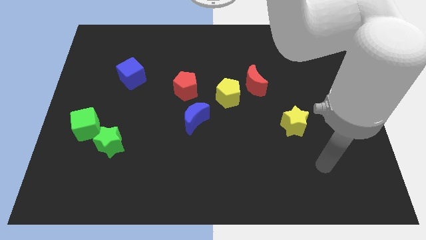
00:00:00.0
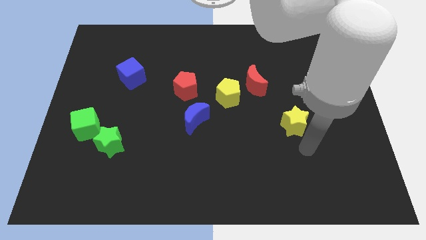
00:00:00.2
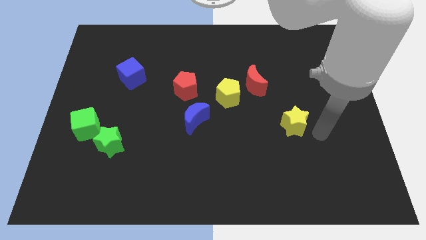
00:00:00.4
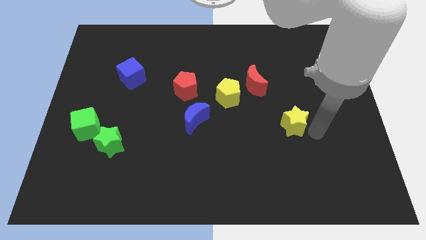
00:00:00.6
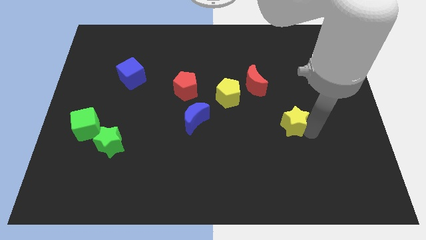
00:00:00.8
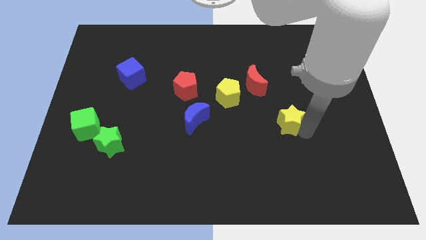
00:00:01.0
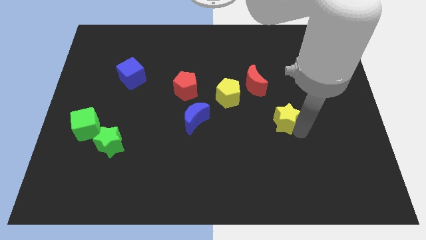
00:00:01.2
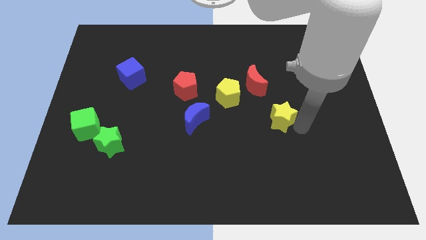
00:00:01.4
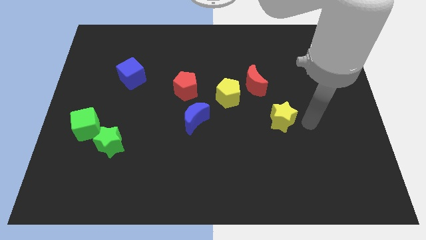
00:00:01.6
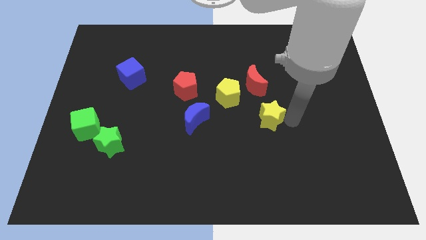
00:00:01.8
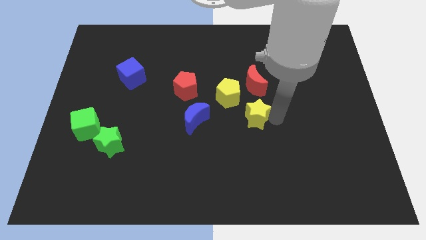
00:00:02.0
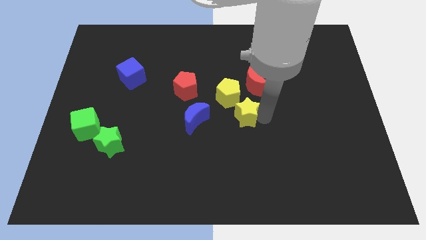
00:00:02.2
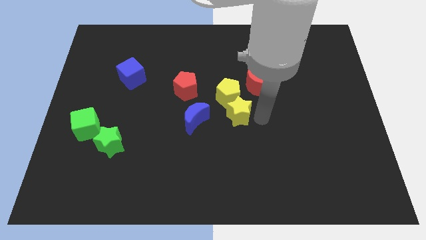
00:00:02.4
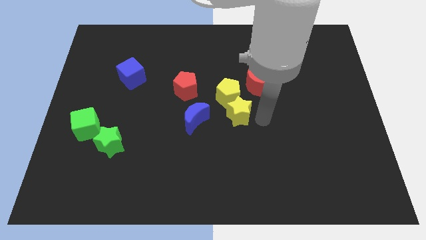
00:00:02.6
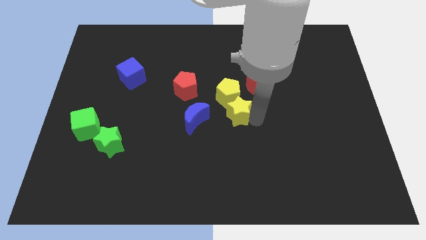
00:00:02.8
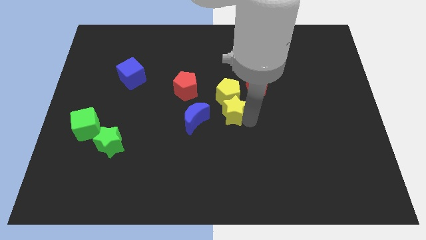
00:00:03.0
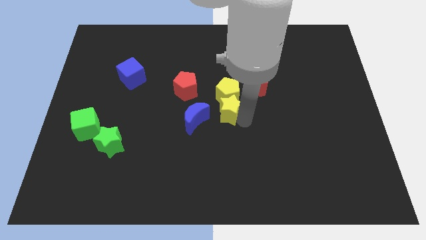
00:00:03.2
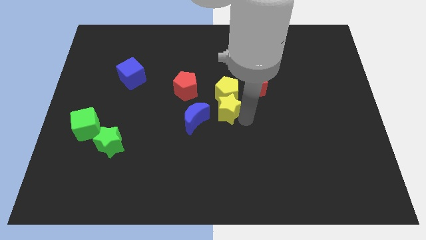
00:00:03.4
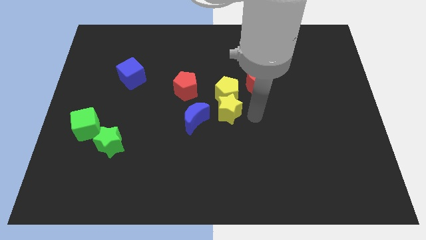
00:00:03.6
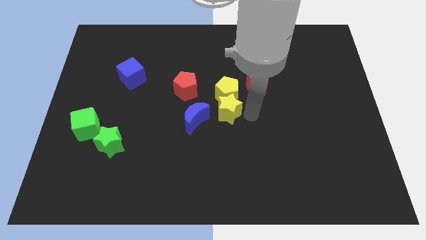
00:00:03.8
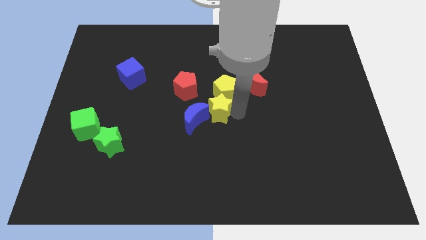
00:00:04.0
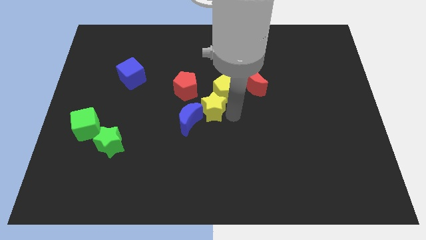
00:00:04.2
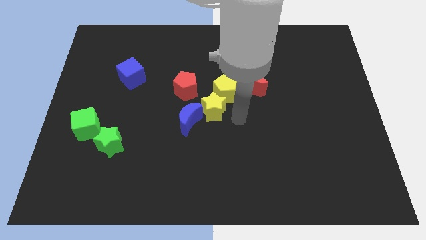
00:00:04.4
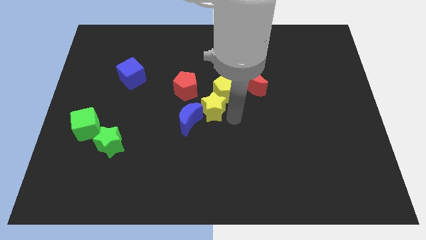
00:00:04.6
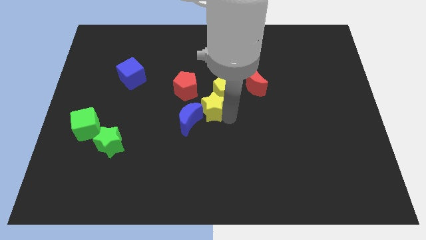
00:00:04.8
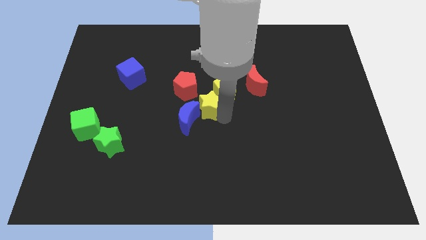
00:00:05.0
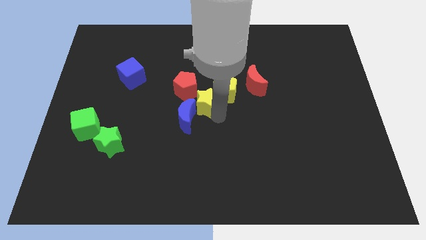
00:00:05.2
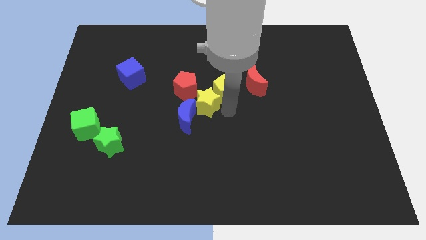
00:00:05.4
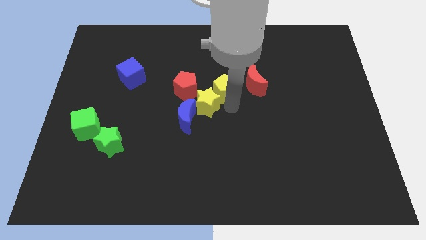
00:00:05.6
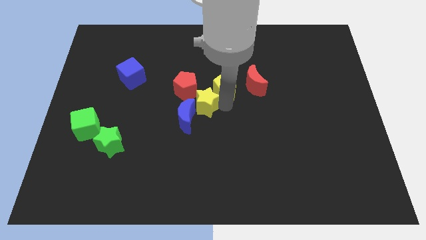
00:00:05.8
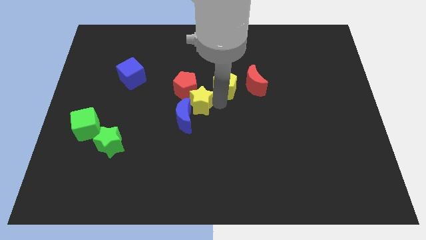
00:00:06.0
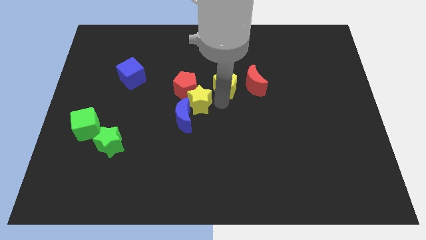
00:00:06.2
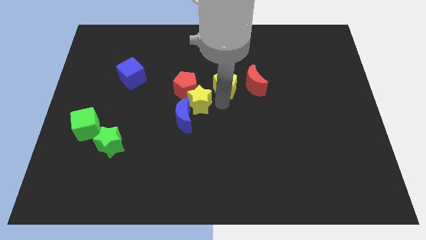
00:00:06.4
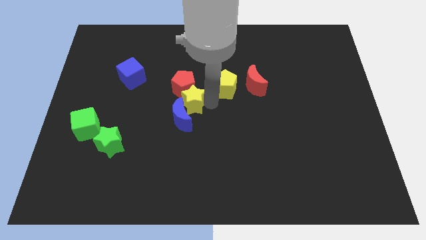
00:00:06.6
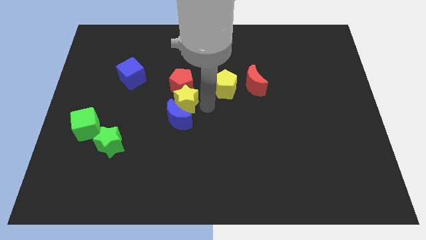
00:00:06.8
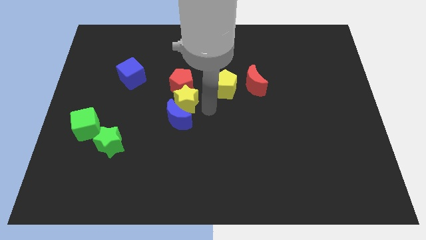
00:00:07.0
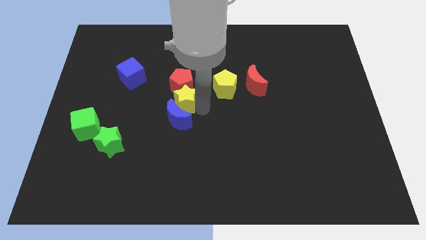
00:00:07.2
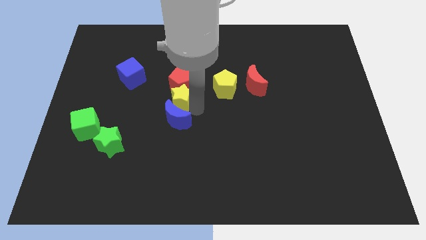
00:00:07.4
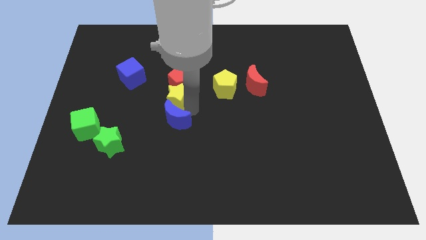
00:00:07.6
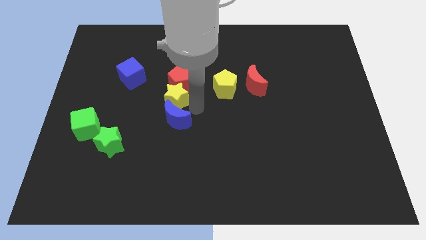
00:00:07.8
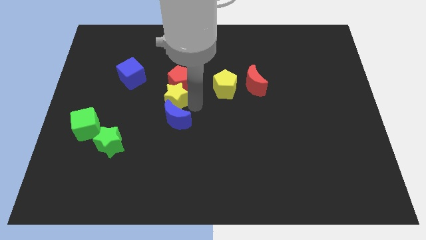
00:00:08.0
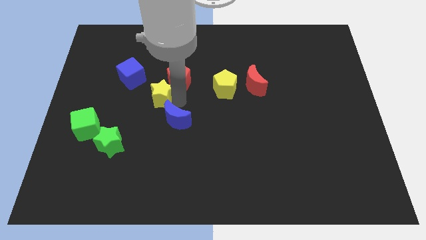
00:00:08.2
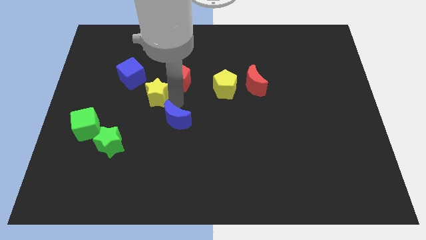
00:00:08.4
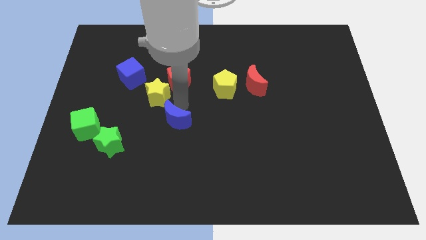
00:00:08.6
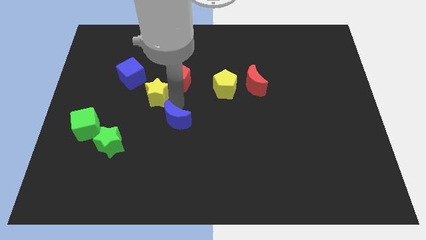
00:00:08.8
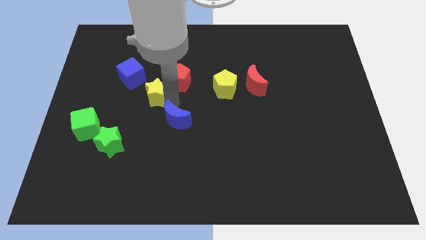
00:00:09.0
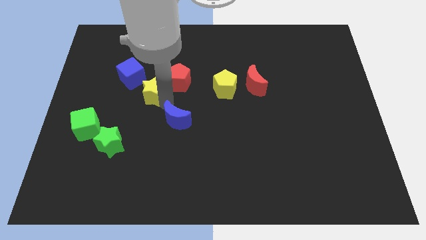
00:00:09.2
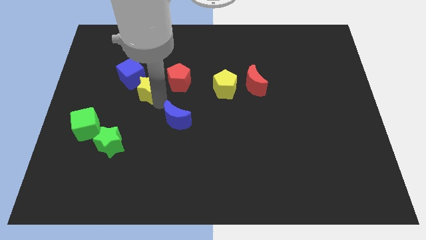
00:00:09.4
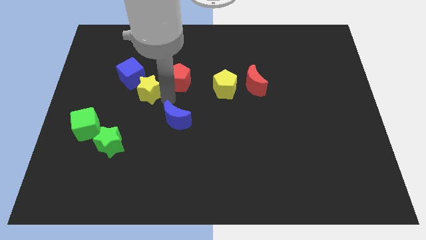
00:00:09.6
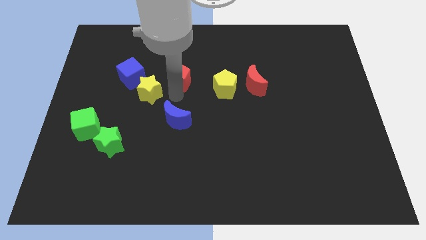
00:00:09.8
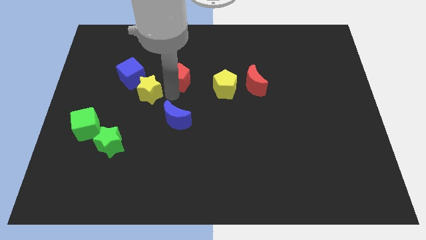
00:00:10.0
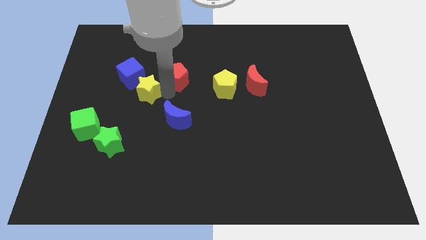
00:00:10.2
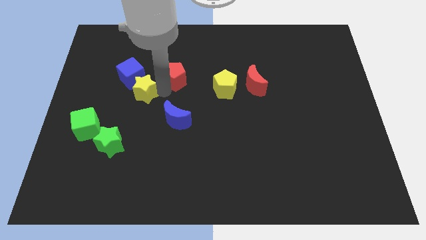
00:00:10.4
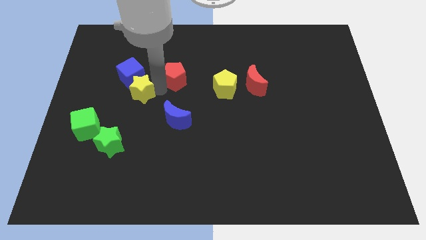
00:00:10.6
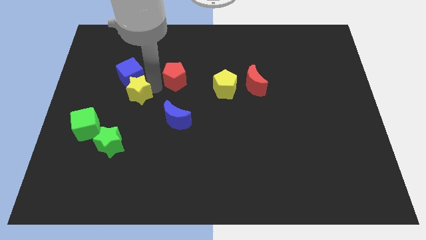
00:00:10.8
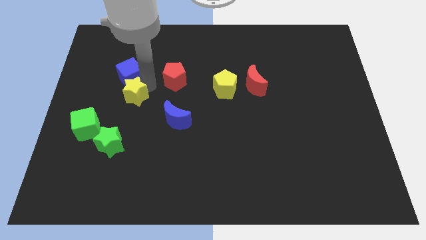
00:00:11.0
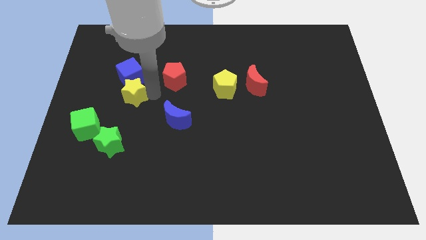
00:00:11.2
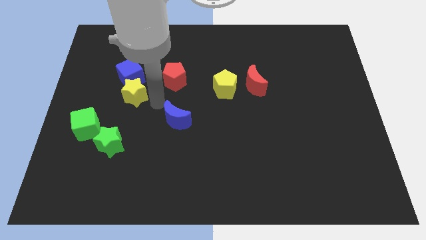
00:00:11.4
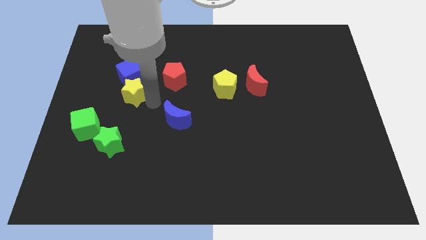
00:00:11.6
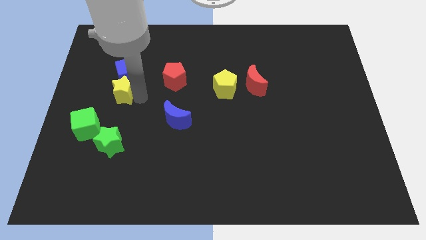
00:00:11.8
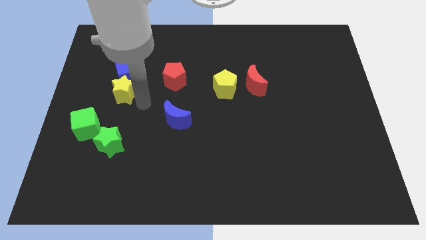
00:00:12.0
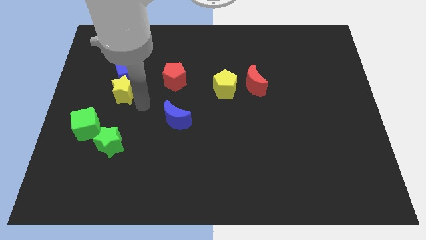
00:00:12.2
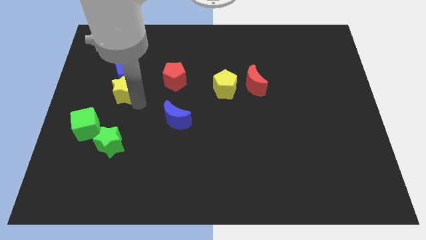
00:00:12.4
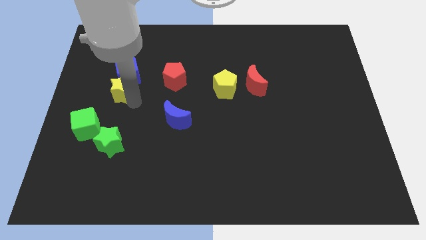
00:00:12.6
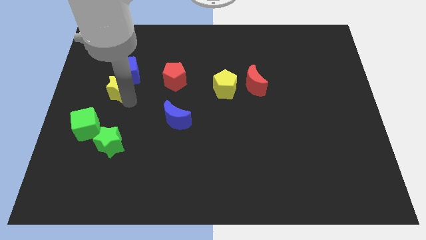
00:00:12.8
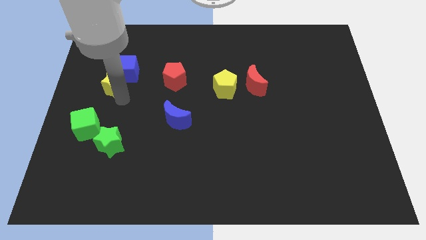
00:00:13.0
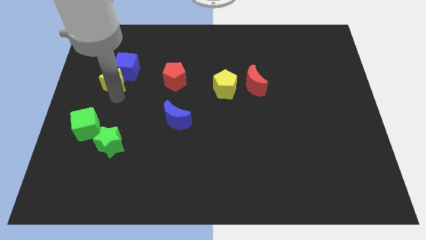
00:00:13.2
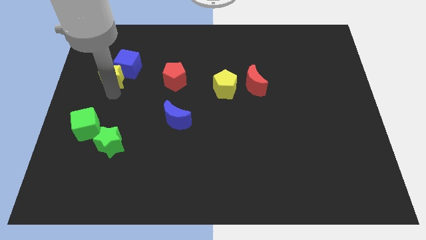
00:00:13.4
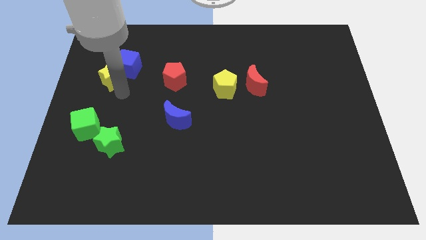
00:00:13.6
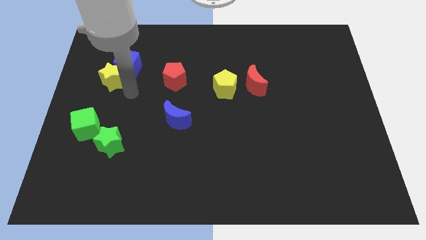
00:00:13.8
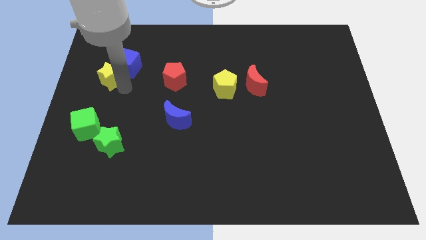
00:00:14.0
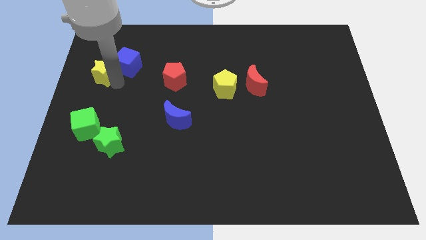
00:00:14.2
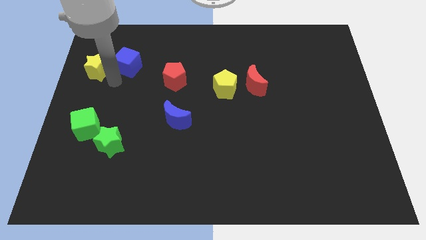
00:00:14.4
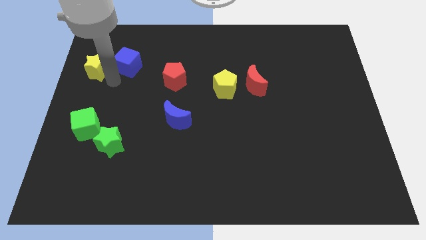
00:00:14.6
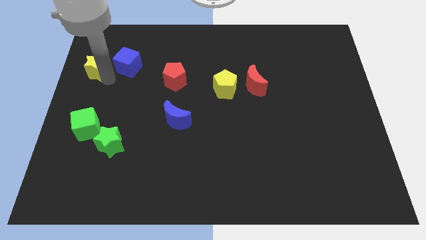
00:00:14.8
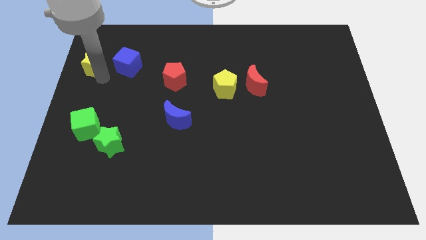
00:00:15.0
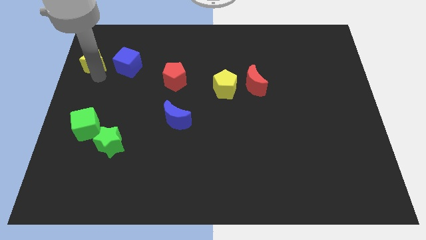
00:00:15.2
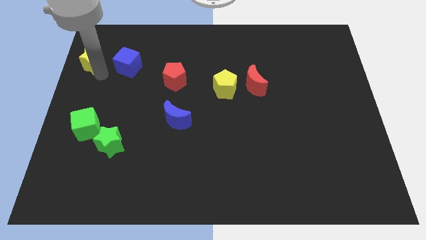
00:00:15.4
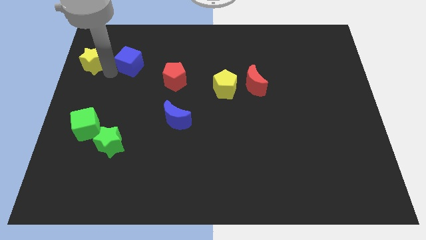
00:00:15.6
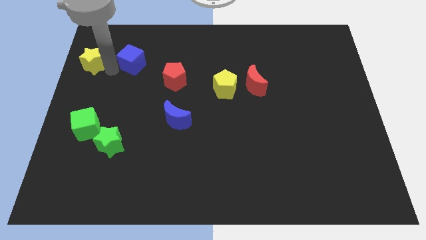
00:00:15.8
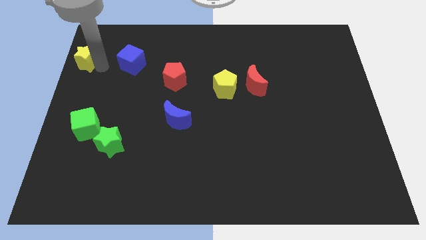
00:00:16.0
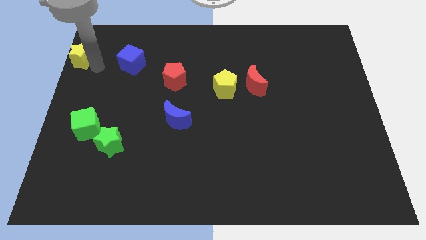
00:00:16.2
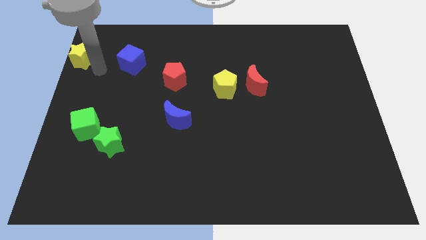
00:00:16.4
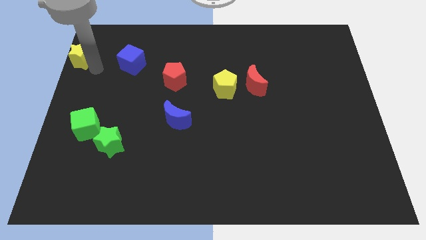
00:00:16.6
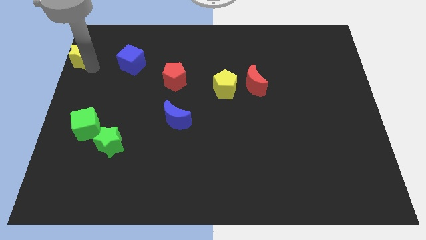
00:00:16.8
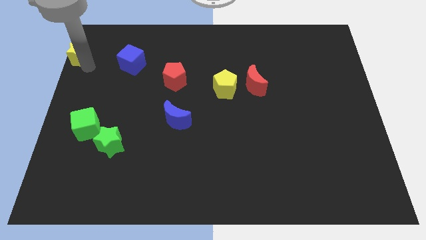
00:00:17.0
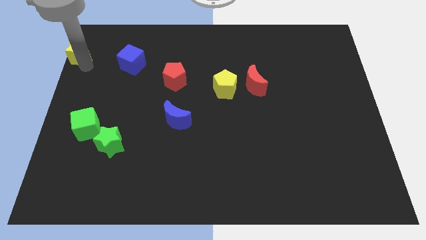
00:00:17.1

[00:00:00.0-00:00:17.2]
slide the yellow star to the top left
